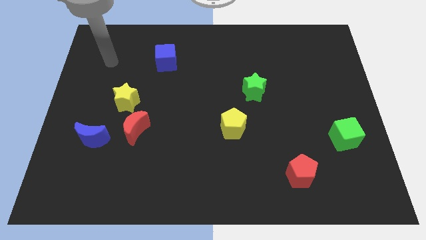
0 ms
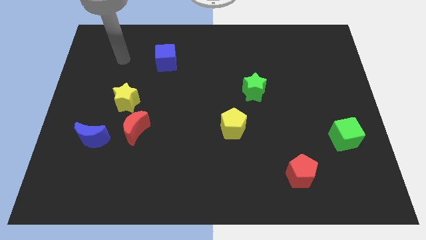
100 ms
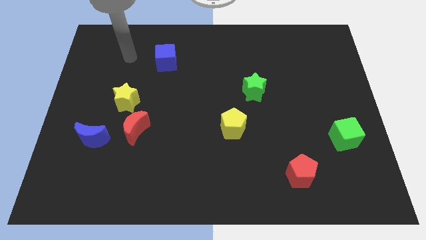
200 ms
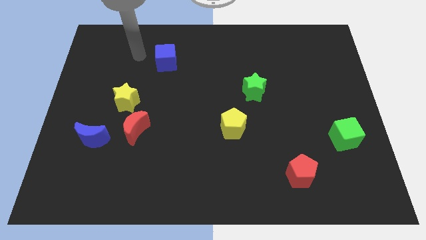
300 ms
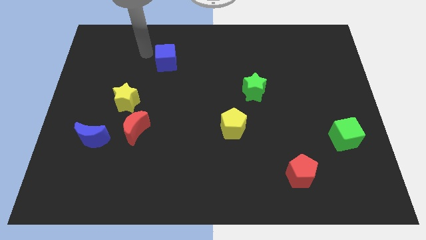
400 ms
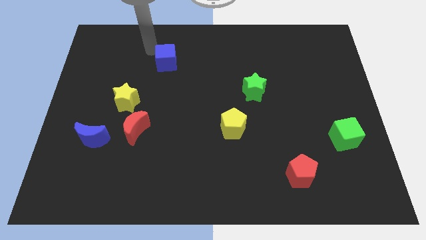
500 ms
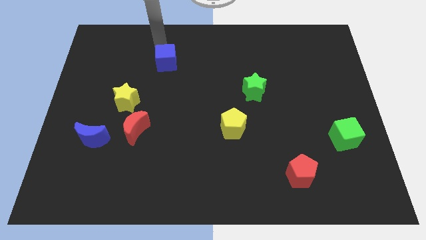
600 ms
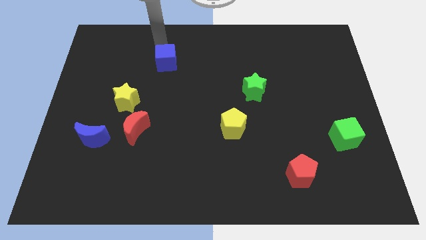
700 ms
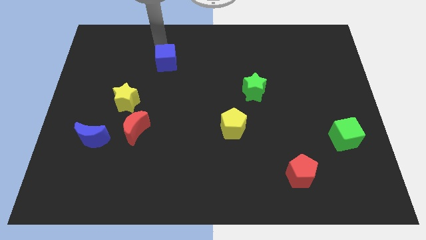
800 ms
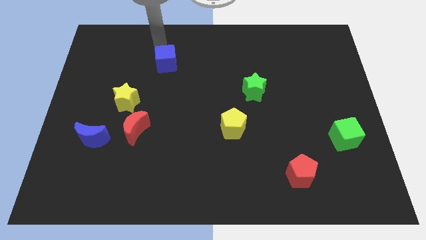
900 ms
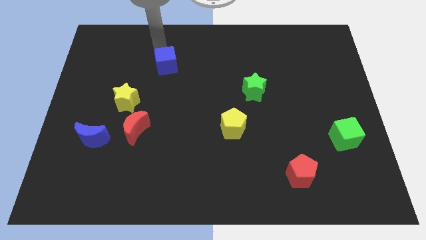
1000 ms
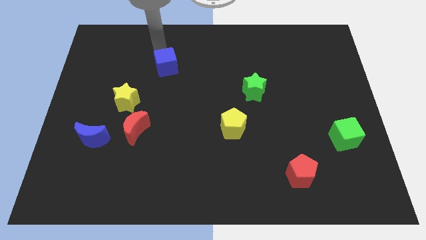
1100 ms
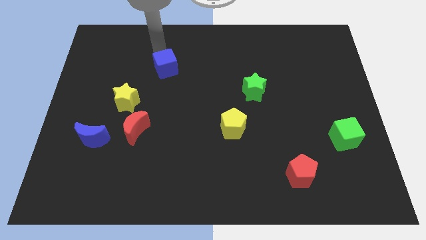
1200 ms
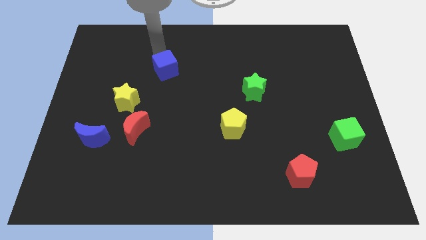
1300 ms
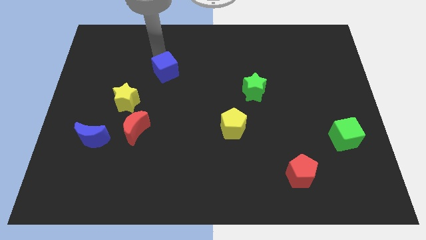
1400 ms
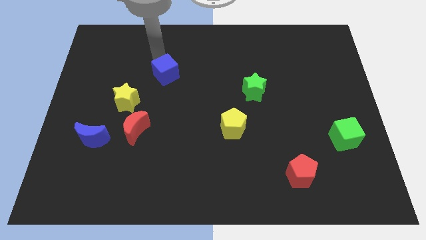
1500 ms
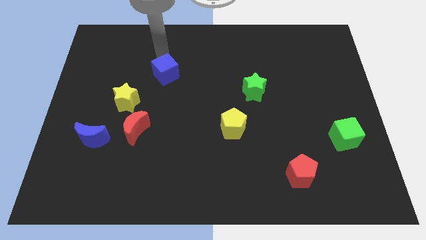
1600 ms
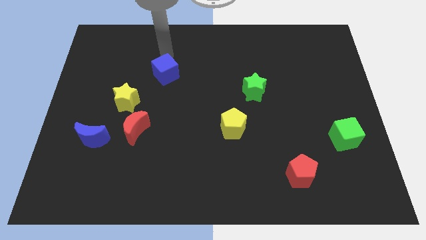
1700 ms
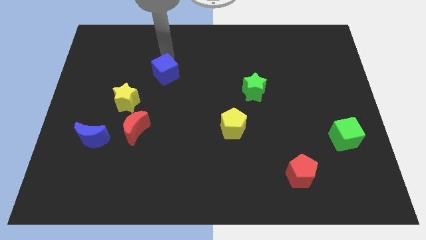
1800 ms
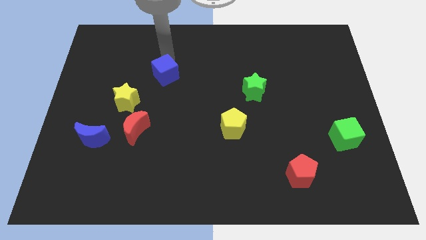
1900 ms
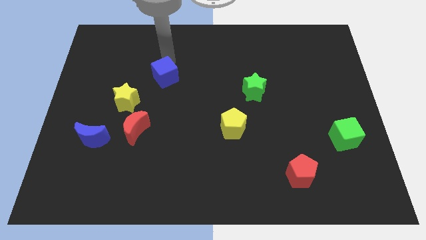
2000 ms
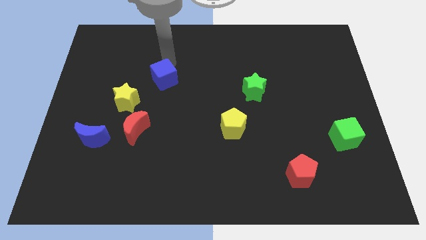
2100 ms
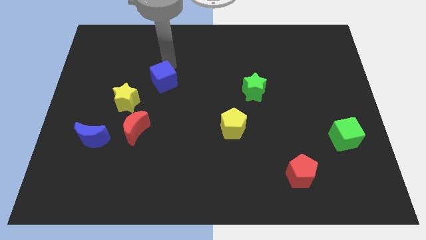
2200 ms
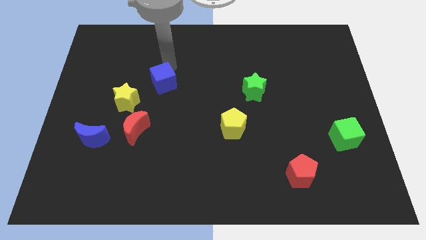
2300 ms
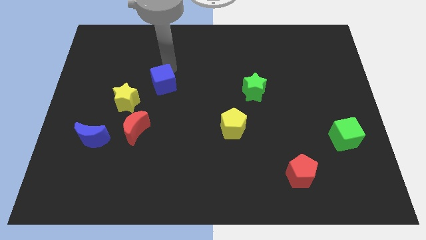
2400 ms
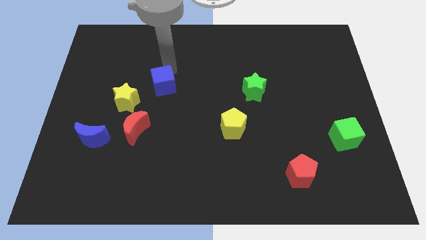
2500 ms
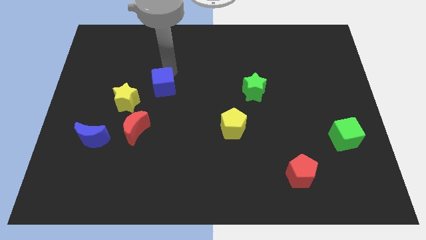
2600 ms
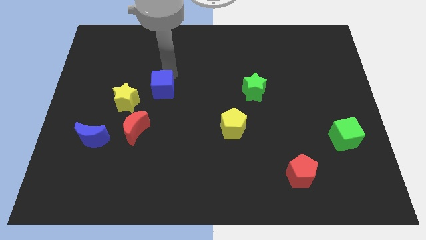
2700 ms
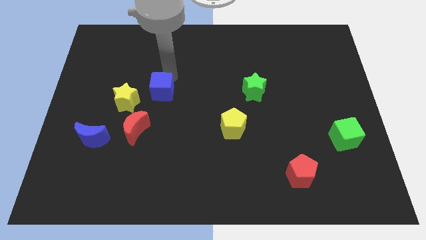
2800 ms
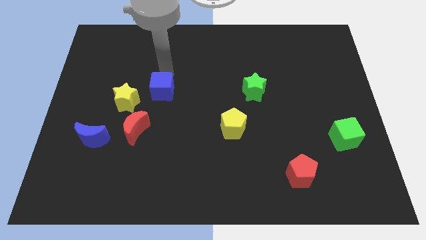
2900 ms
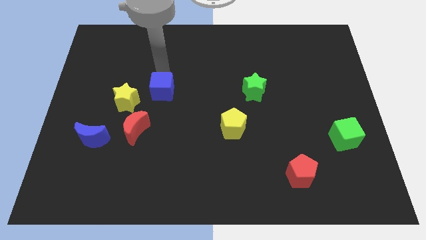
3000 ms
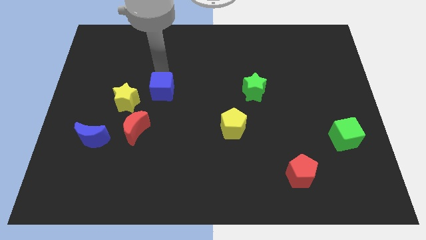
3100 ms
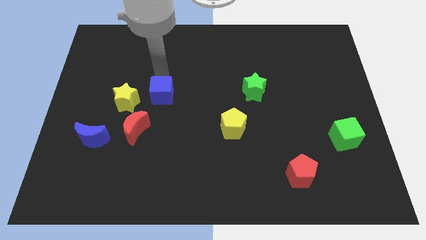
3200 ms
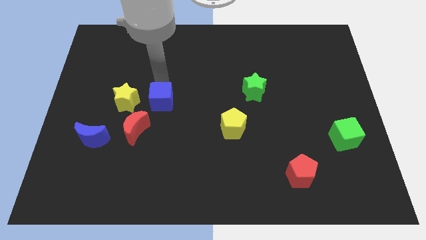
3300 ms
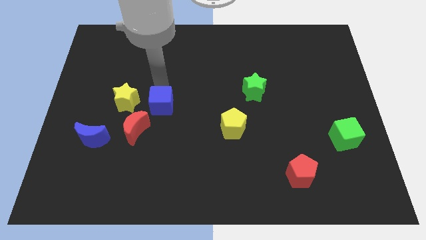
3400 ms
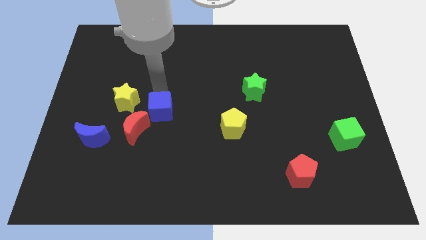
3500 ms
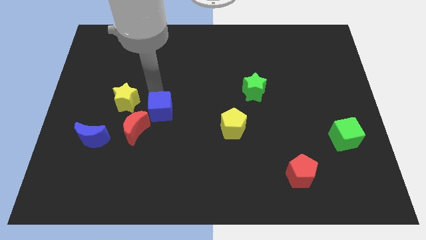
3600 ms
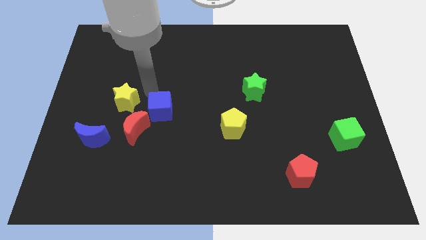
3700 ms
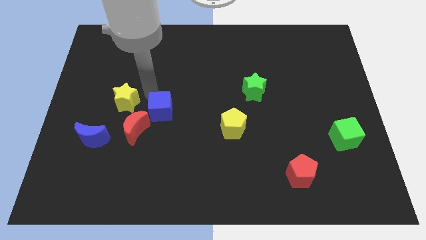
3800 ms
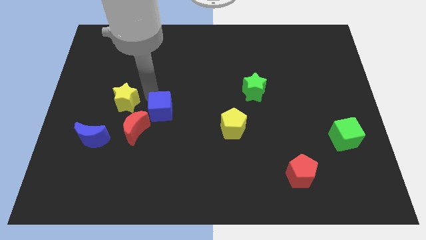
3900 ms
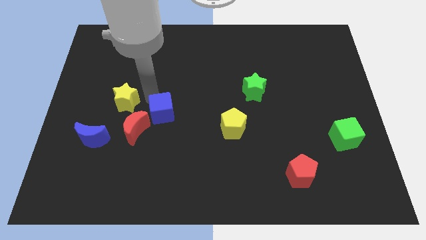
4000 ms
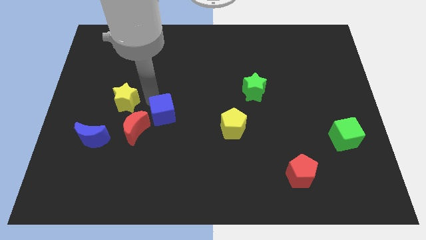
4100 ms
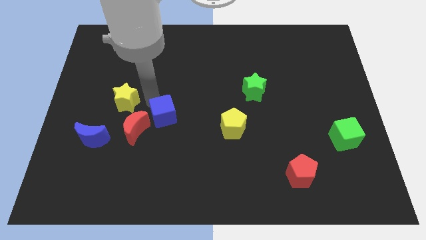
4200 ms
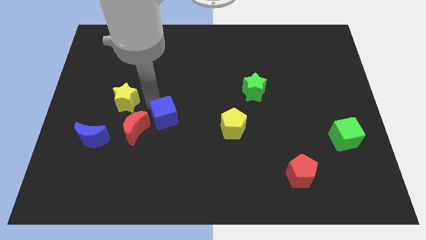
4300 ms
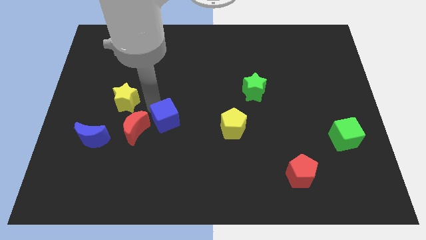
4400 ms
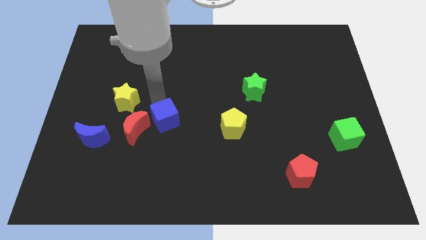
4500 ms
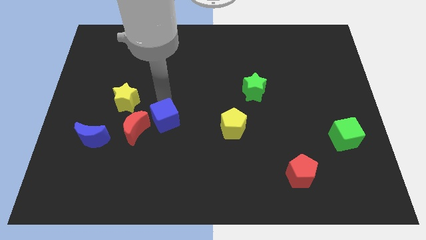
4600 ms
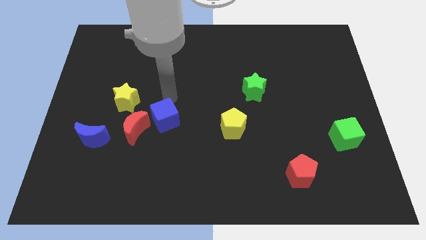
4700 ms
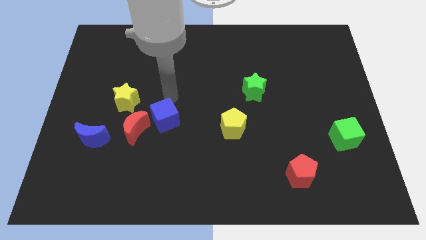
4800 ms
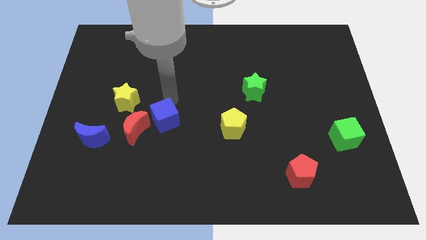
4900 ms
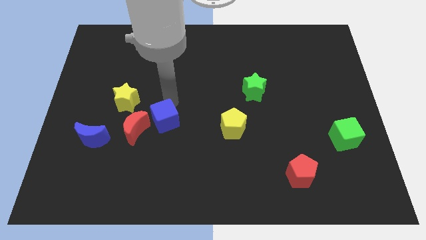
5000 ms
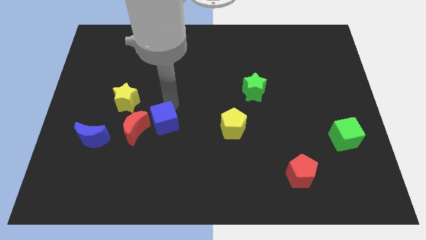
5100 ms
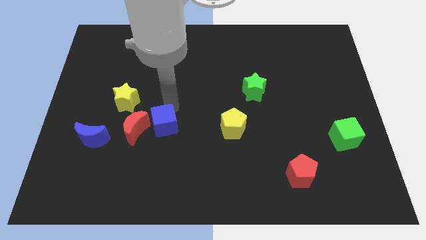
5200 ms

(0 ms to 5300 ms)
slide the blue cube downwards

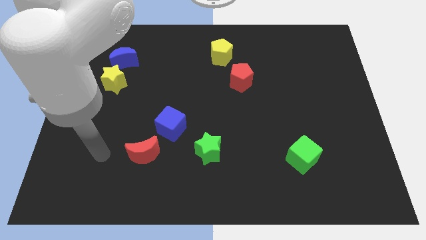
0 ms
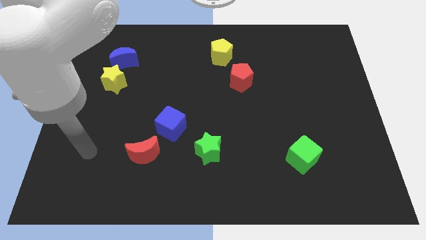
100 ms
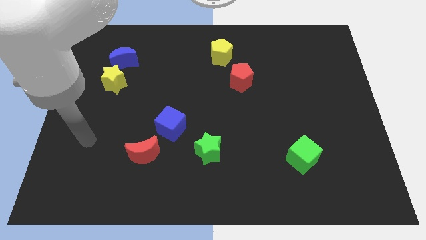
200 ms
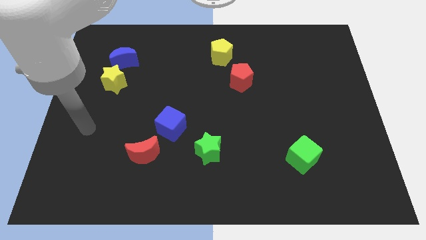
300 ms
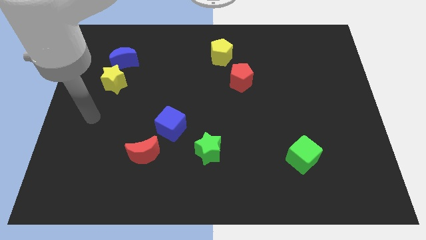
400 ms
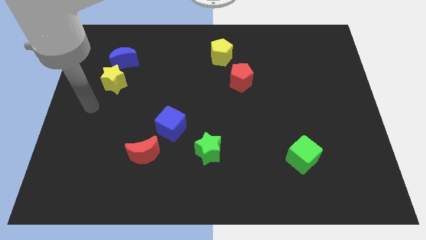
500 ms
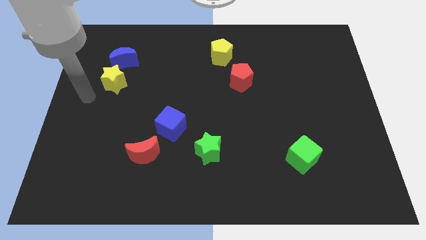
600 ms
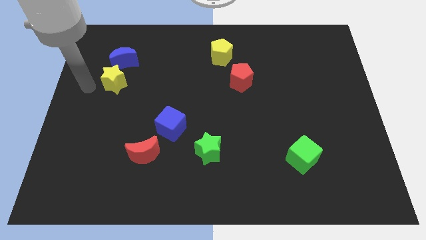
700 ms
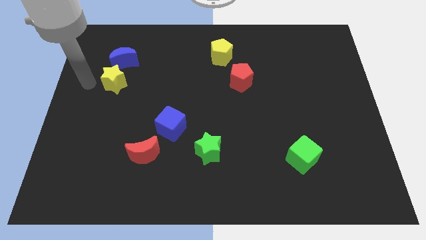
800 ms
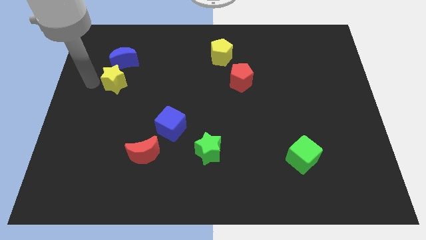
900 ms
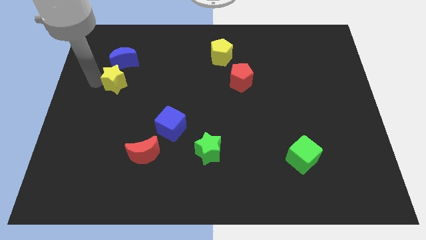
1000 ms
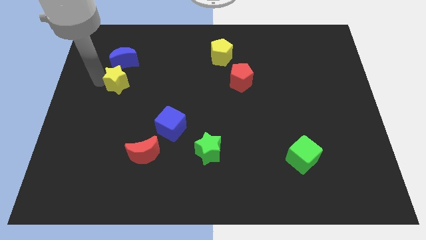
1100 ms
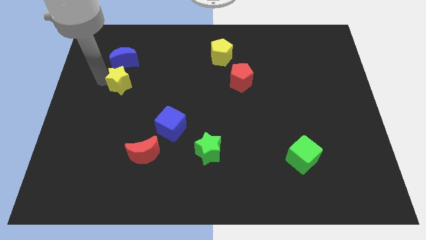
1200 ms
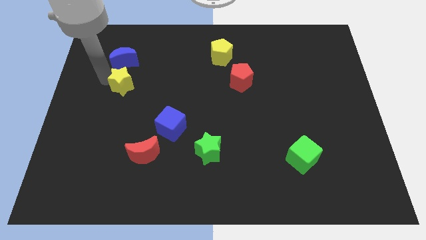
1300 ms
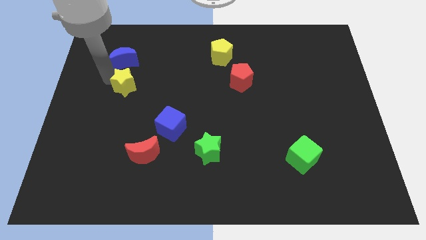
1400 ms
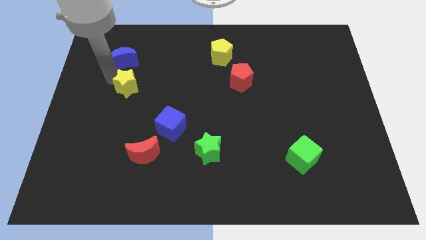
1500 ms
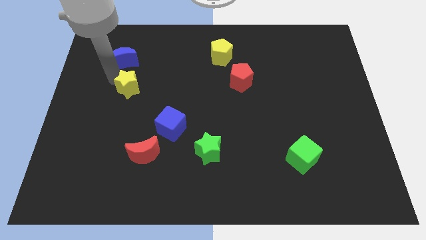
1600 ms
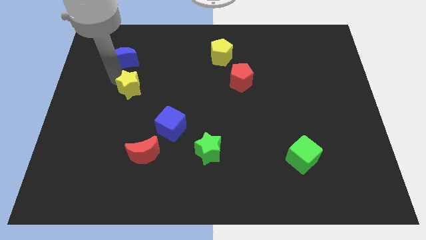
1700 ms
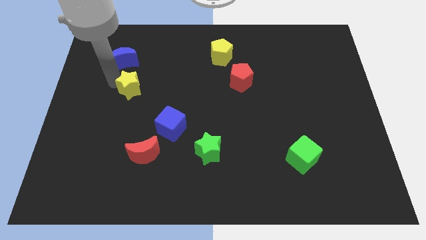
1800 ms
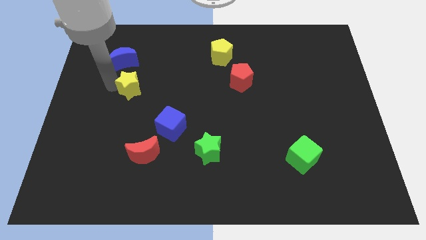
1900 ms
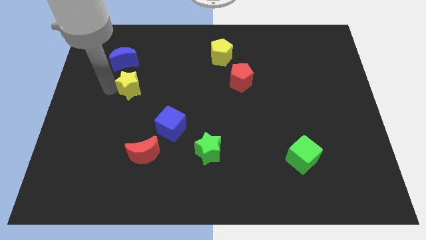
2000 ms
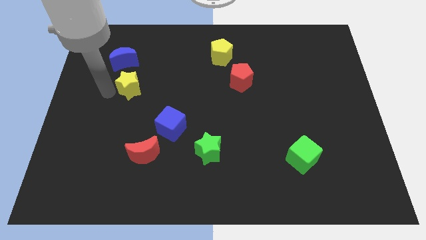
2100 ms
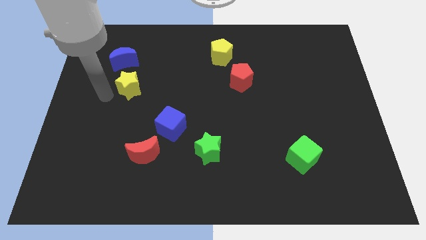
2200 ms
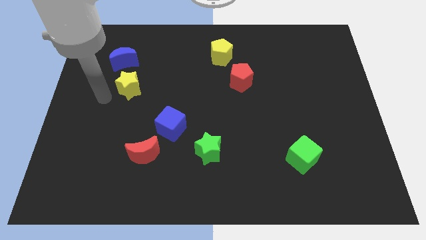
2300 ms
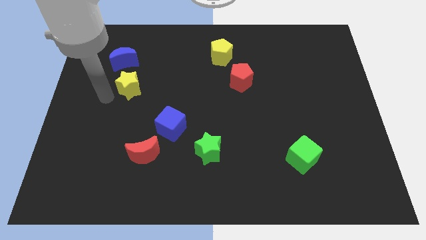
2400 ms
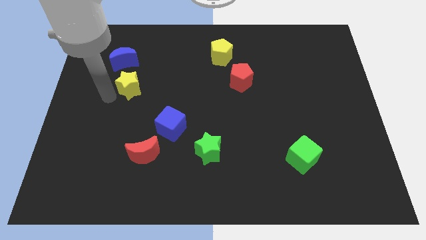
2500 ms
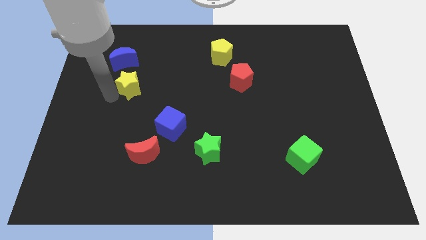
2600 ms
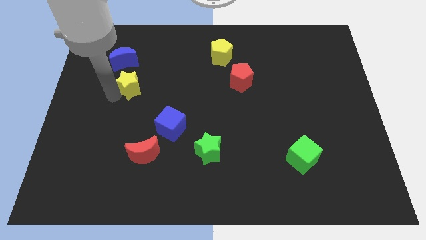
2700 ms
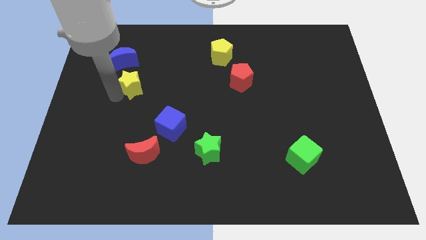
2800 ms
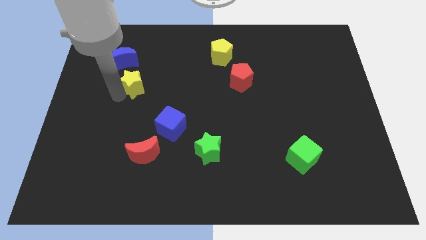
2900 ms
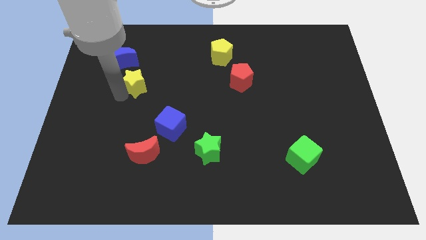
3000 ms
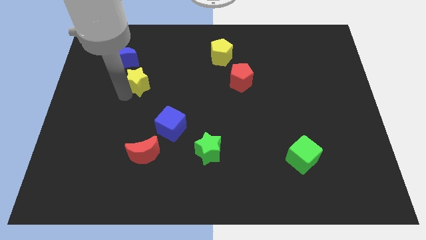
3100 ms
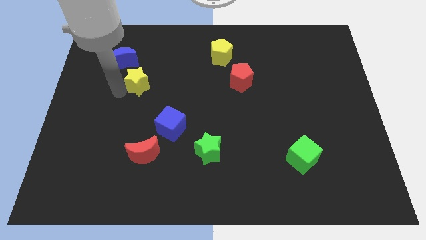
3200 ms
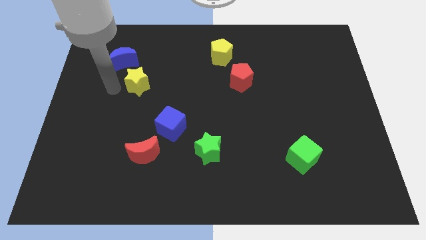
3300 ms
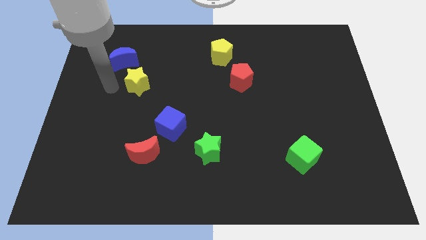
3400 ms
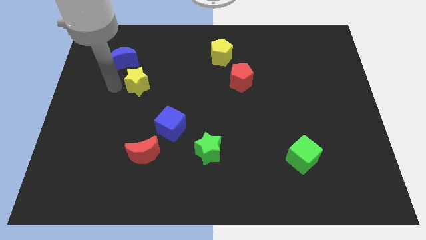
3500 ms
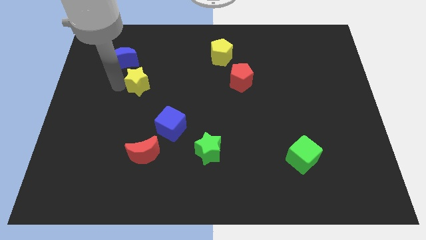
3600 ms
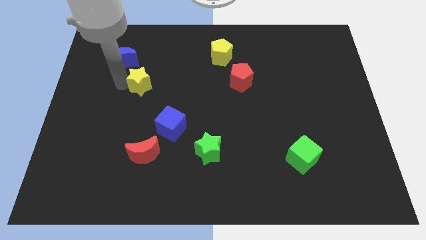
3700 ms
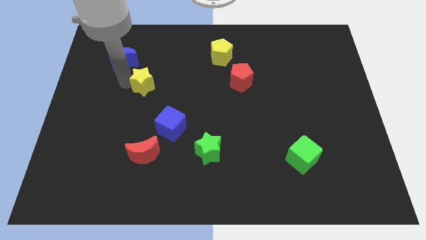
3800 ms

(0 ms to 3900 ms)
move the yellow star right a bit
